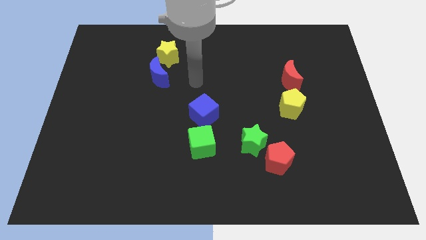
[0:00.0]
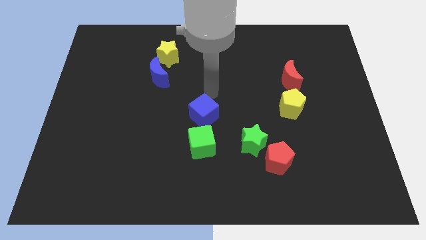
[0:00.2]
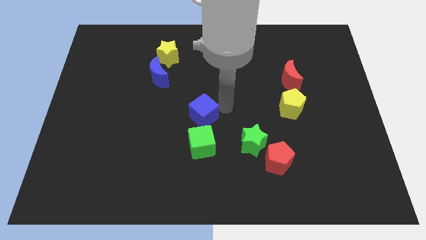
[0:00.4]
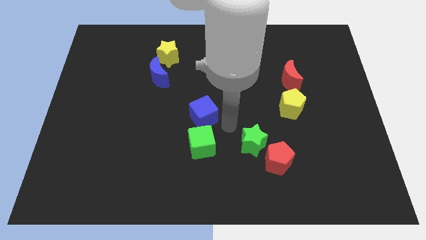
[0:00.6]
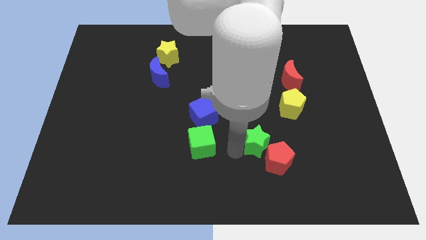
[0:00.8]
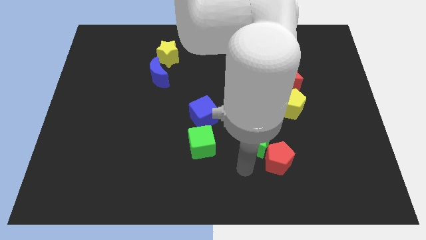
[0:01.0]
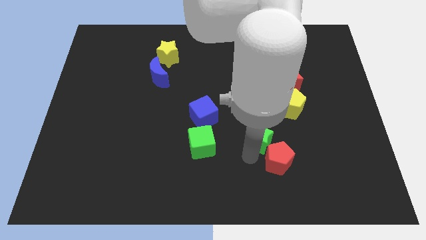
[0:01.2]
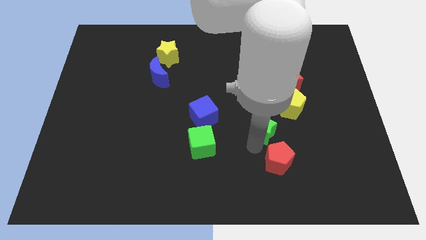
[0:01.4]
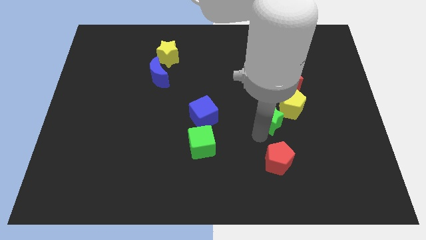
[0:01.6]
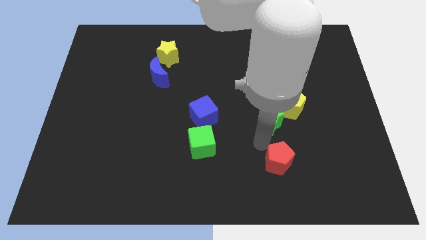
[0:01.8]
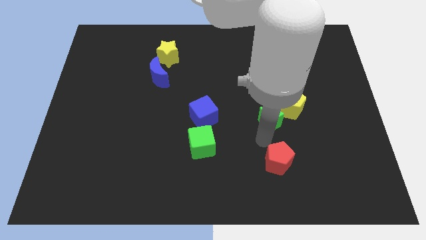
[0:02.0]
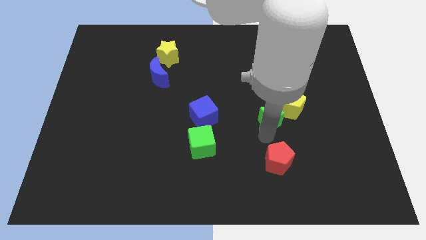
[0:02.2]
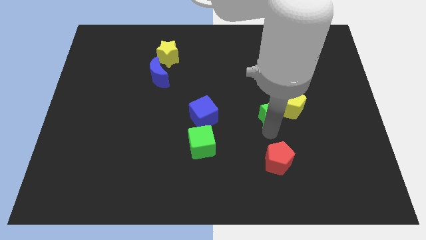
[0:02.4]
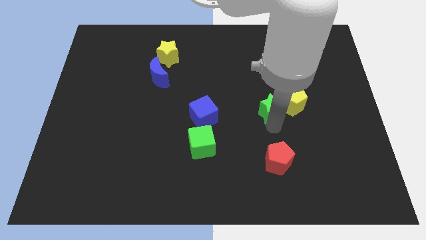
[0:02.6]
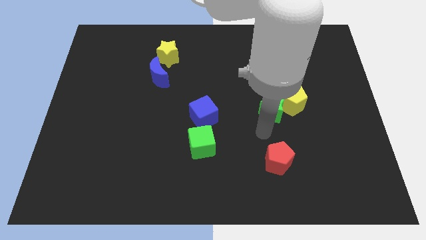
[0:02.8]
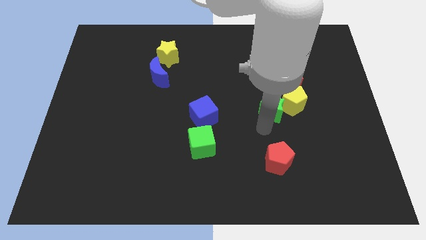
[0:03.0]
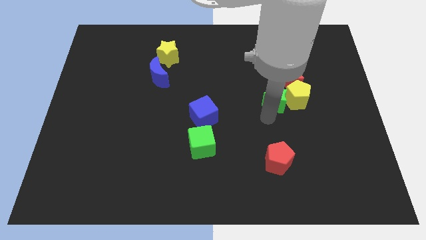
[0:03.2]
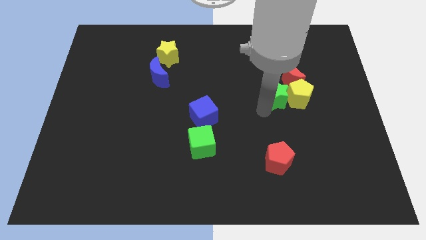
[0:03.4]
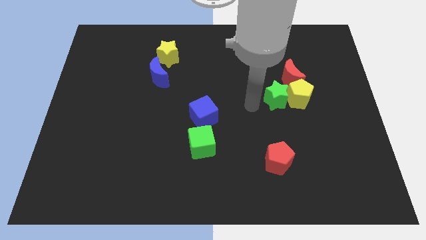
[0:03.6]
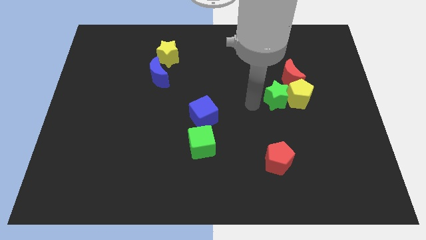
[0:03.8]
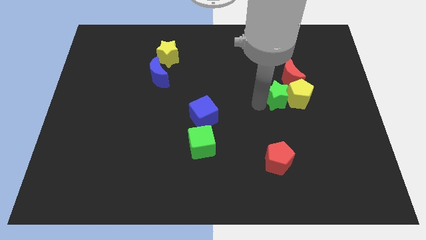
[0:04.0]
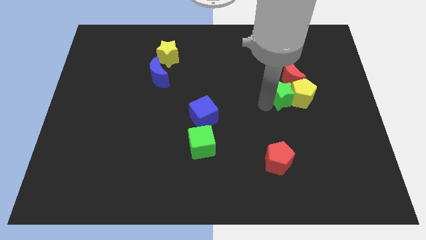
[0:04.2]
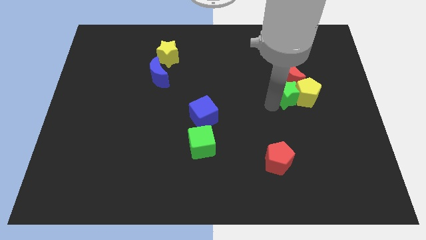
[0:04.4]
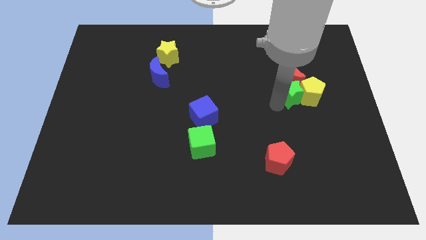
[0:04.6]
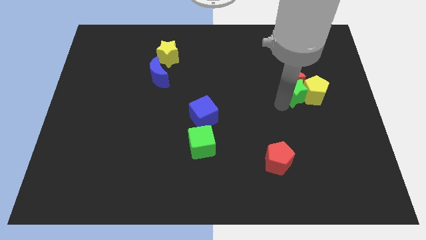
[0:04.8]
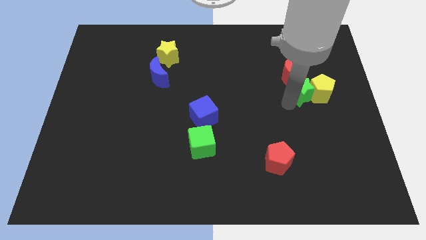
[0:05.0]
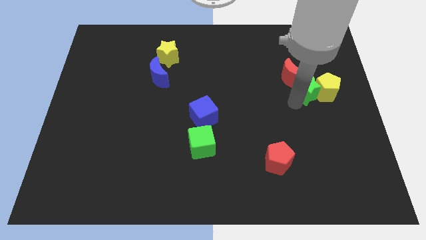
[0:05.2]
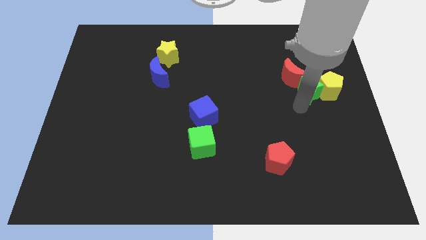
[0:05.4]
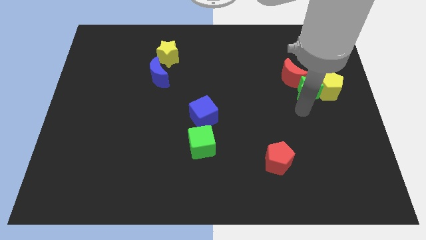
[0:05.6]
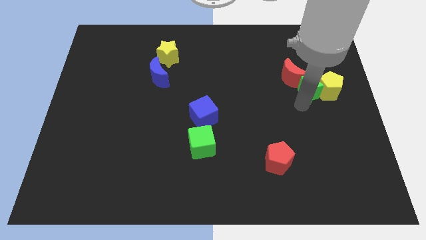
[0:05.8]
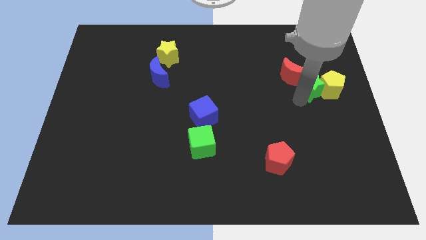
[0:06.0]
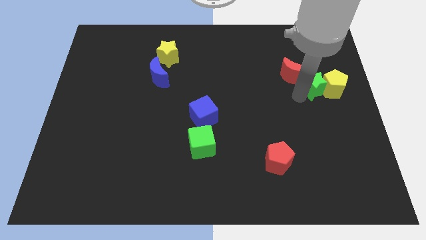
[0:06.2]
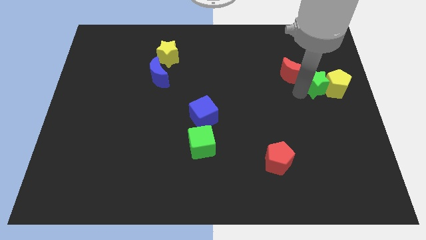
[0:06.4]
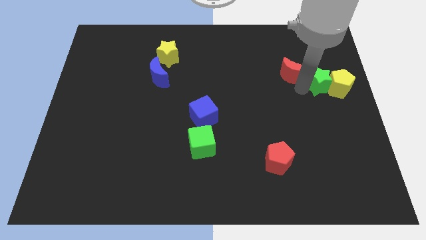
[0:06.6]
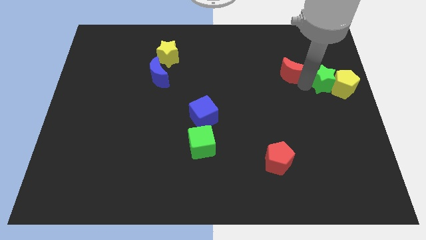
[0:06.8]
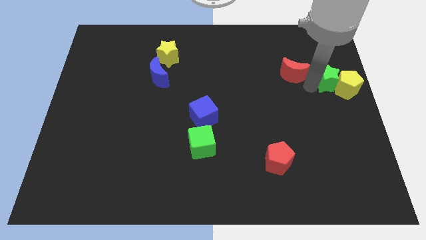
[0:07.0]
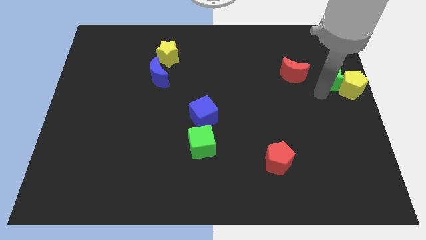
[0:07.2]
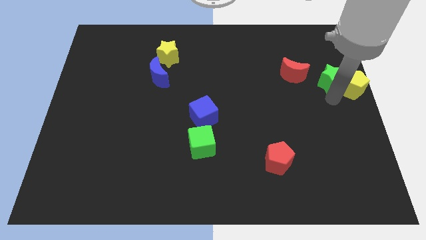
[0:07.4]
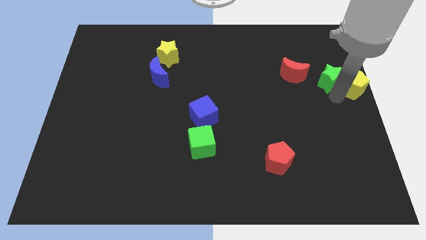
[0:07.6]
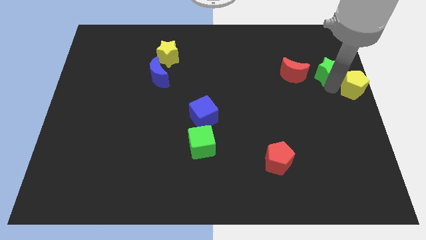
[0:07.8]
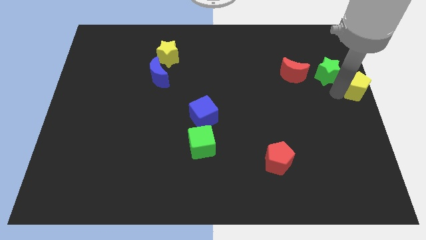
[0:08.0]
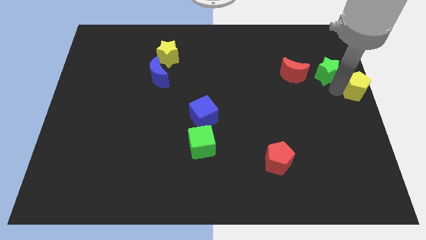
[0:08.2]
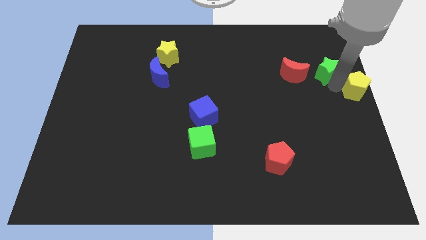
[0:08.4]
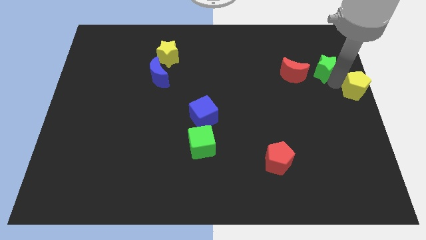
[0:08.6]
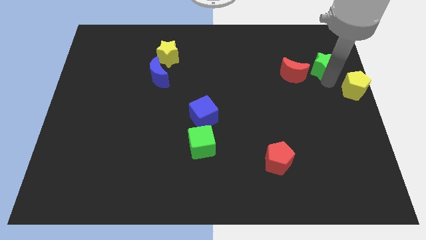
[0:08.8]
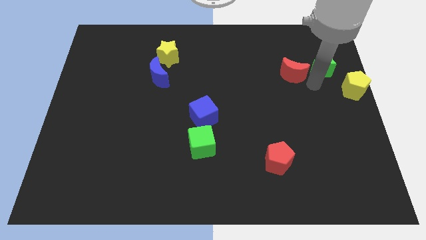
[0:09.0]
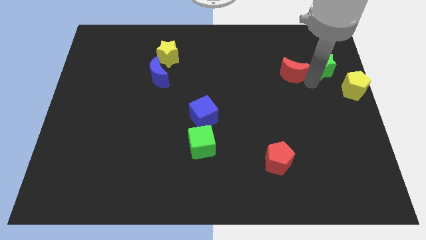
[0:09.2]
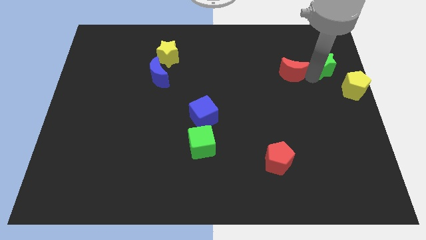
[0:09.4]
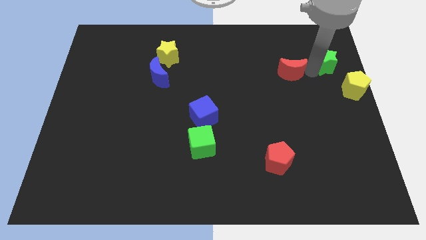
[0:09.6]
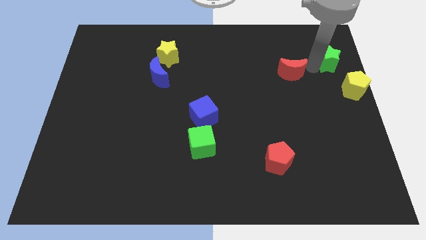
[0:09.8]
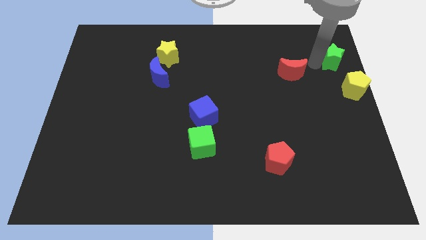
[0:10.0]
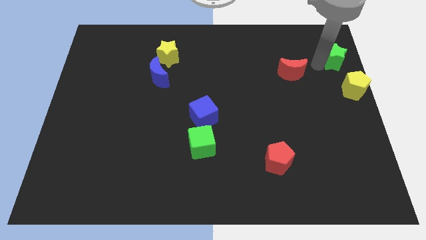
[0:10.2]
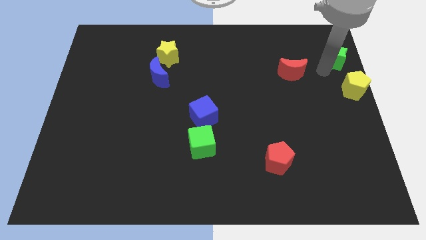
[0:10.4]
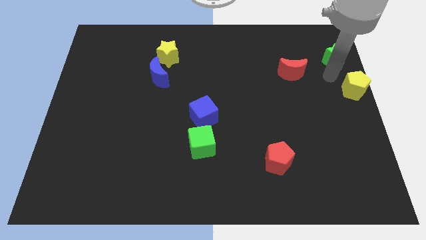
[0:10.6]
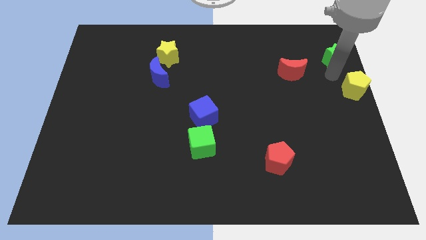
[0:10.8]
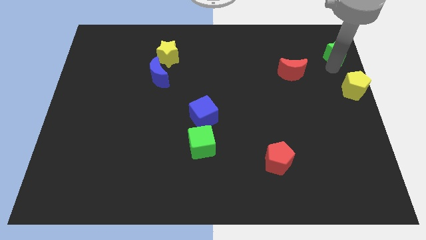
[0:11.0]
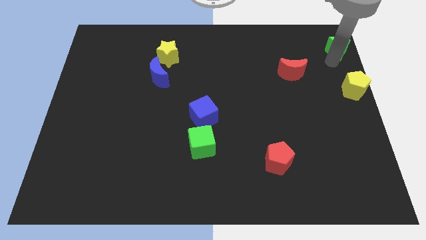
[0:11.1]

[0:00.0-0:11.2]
move the green star to the top right

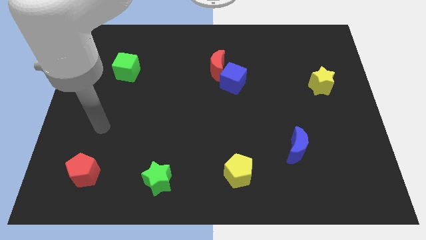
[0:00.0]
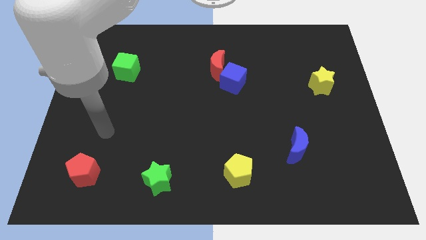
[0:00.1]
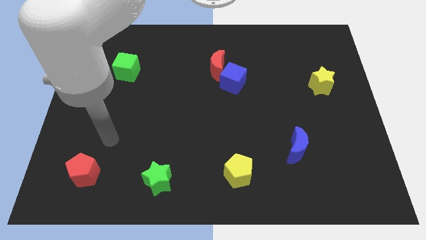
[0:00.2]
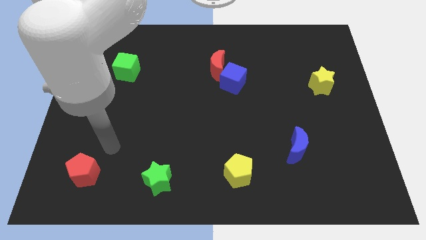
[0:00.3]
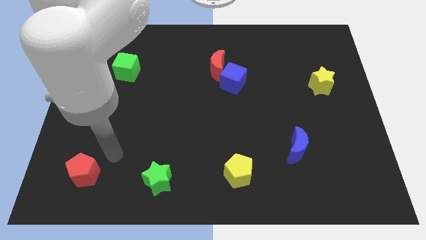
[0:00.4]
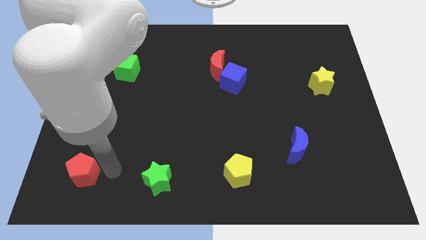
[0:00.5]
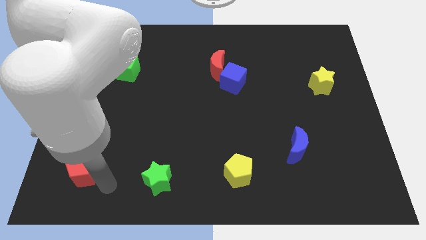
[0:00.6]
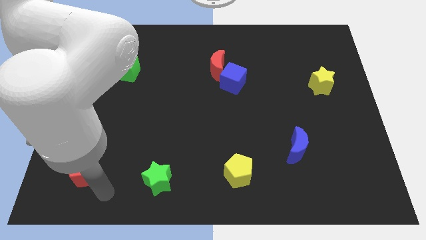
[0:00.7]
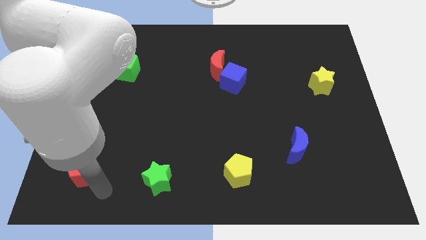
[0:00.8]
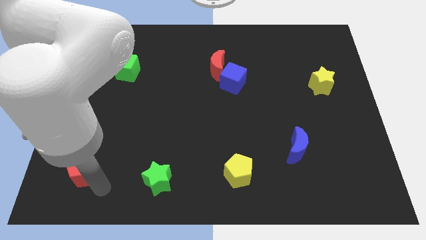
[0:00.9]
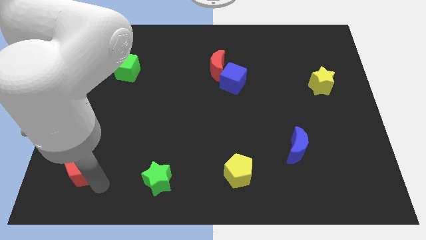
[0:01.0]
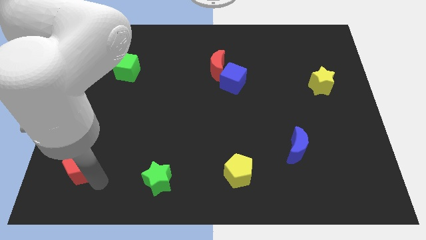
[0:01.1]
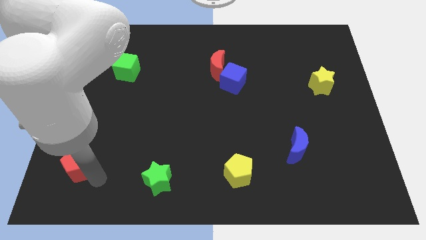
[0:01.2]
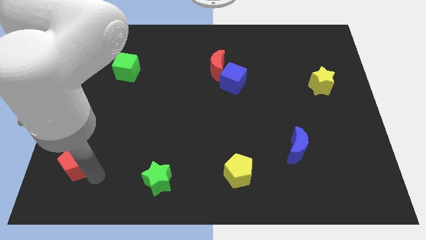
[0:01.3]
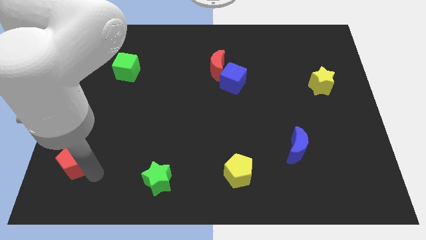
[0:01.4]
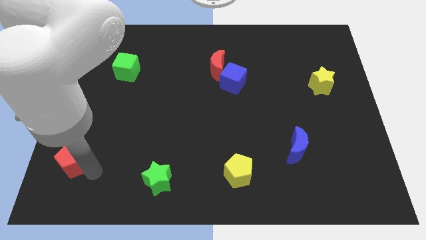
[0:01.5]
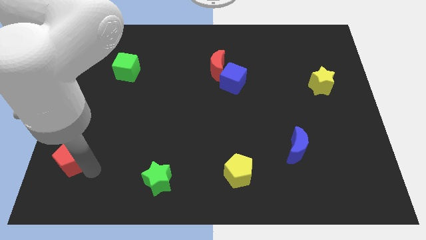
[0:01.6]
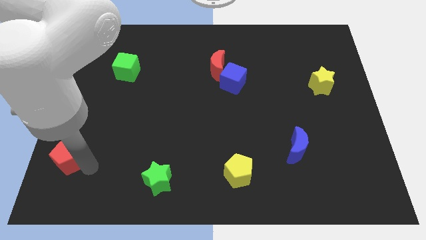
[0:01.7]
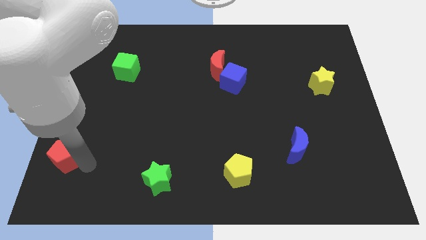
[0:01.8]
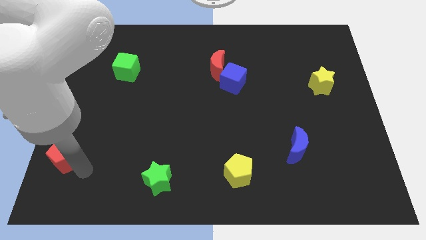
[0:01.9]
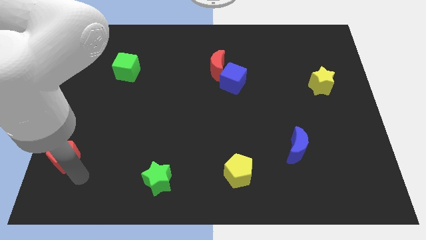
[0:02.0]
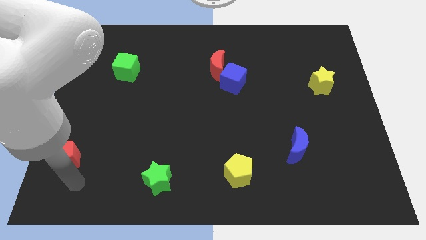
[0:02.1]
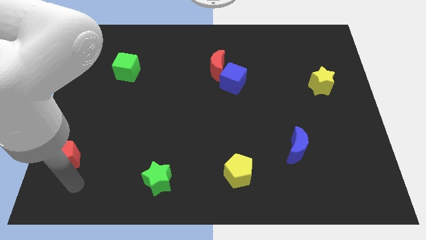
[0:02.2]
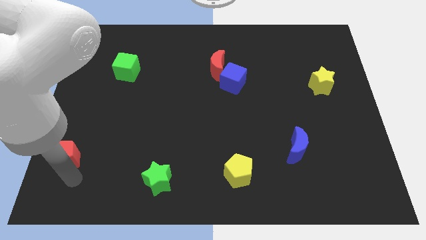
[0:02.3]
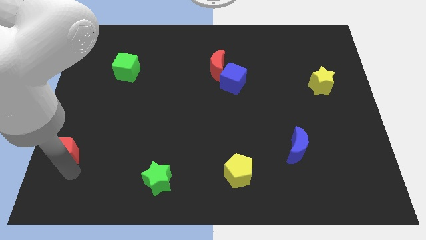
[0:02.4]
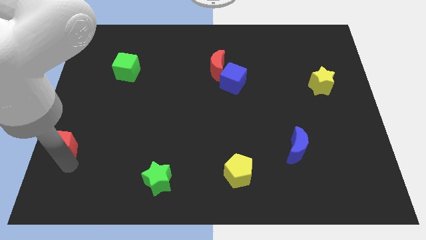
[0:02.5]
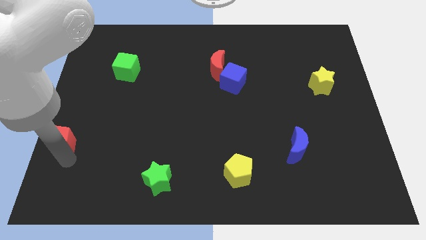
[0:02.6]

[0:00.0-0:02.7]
move the red pentagon to the left side
